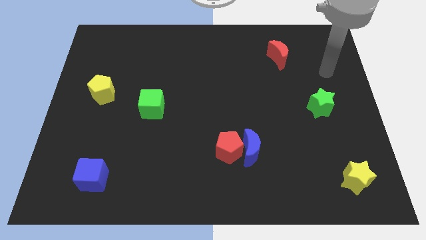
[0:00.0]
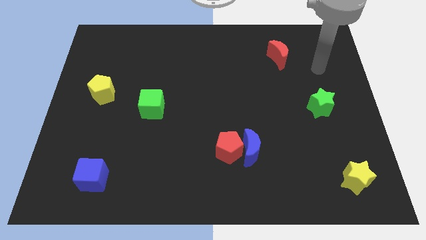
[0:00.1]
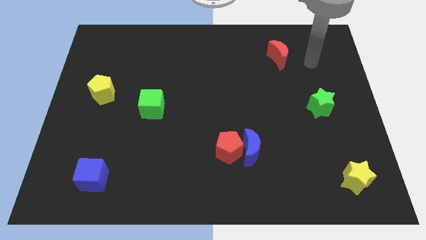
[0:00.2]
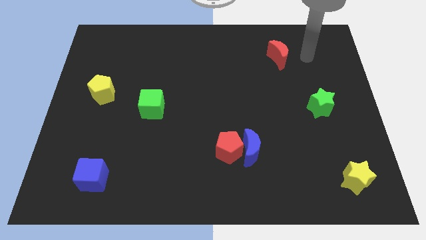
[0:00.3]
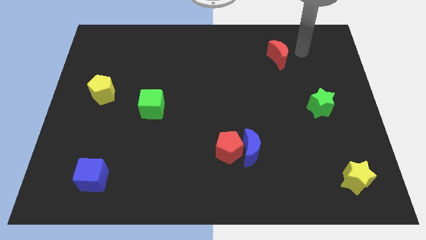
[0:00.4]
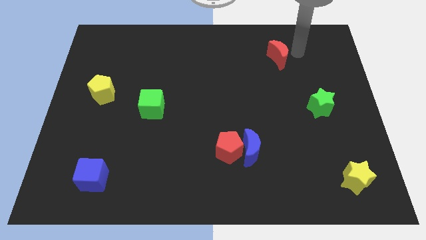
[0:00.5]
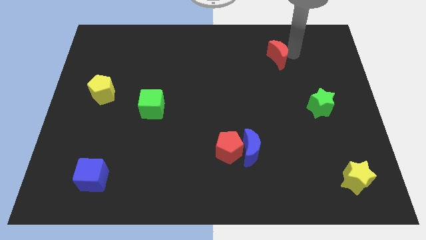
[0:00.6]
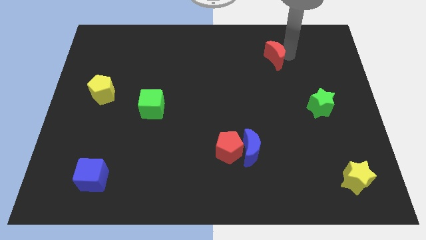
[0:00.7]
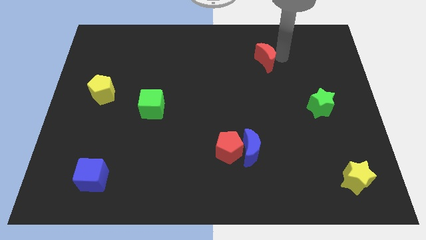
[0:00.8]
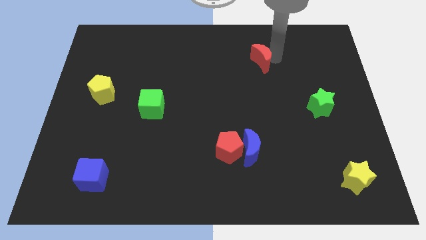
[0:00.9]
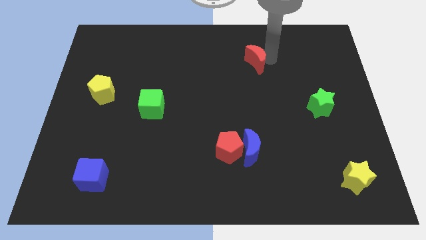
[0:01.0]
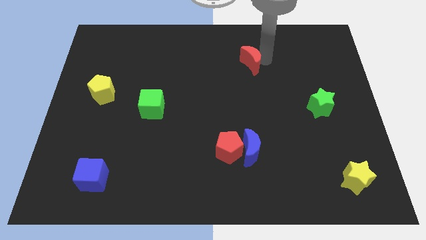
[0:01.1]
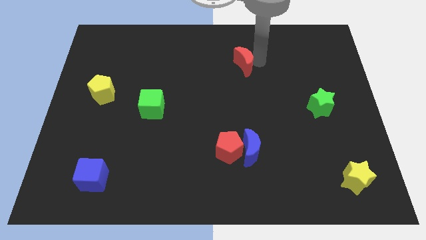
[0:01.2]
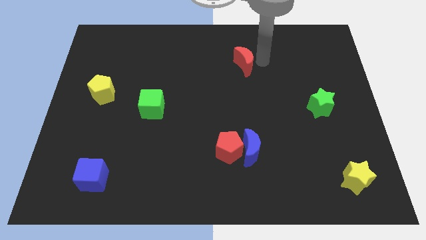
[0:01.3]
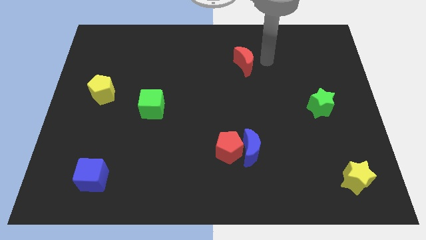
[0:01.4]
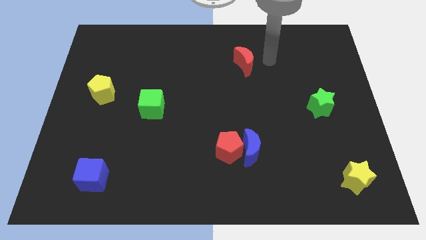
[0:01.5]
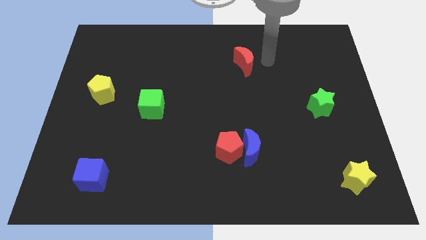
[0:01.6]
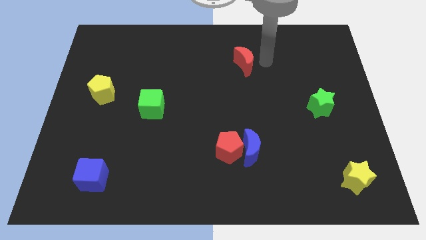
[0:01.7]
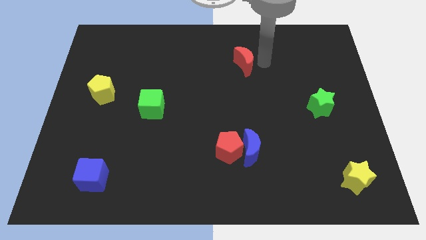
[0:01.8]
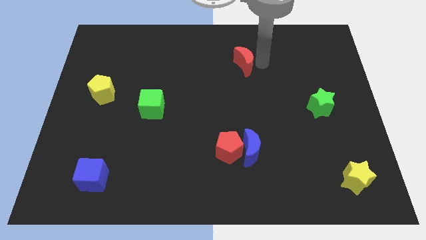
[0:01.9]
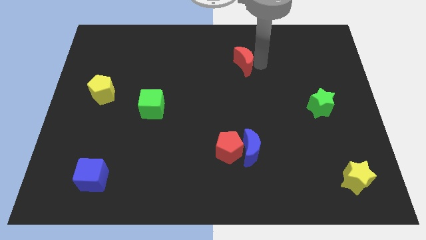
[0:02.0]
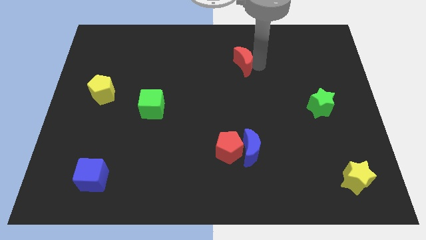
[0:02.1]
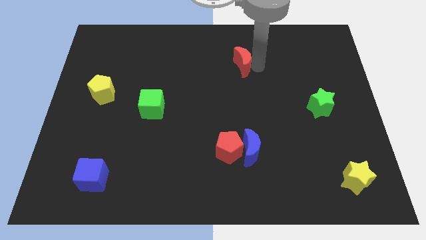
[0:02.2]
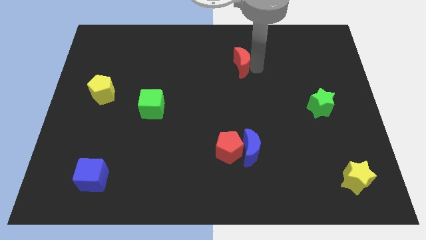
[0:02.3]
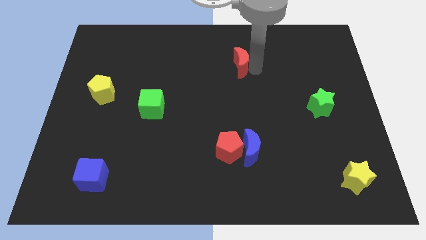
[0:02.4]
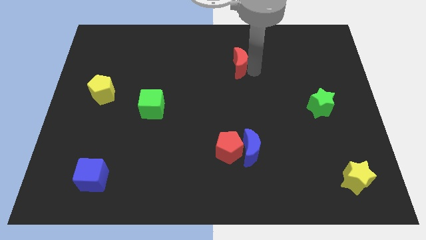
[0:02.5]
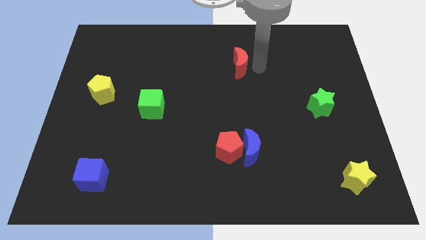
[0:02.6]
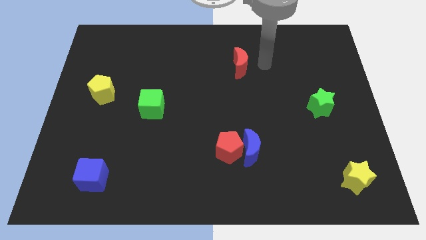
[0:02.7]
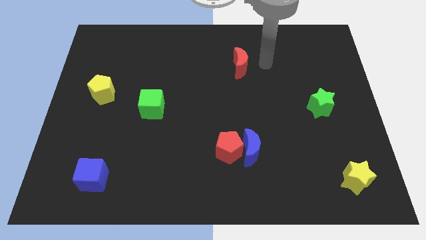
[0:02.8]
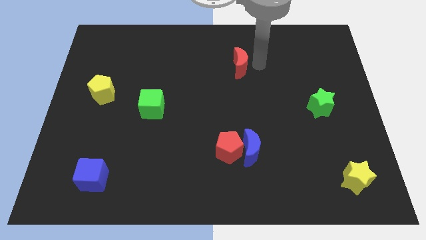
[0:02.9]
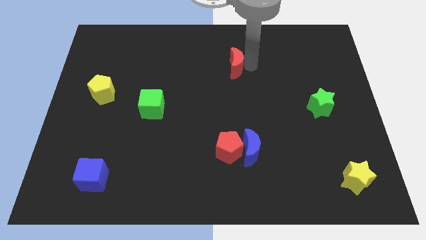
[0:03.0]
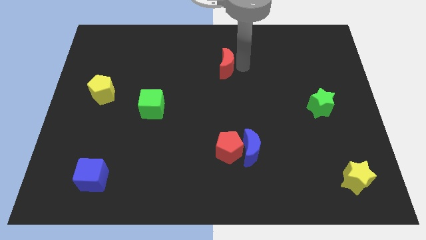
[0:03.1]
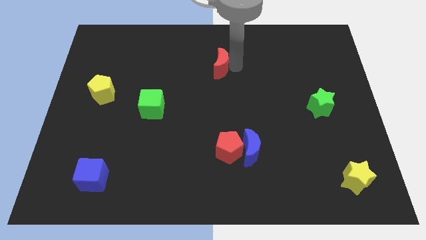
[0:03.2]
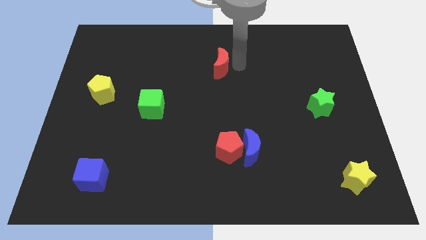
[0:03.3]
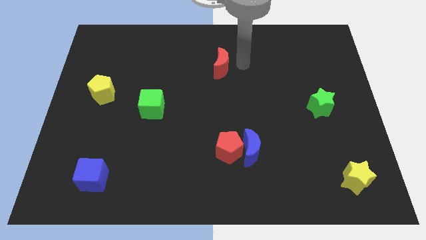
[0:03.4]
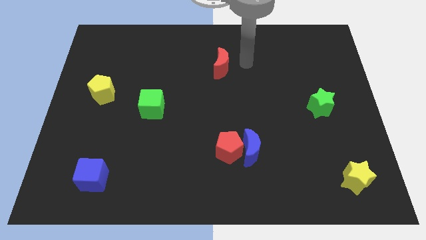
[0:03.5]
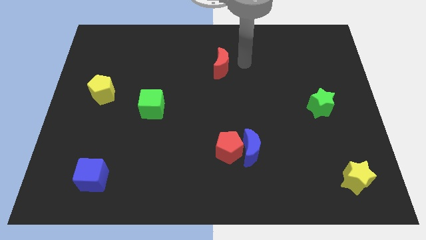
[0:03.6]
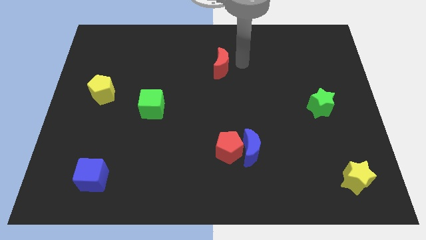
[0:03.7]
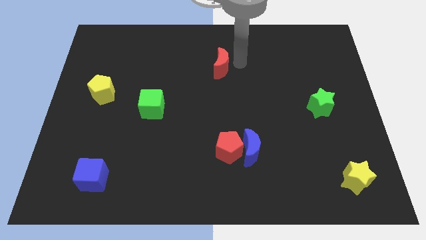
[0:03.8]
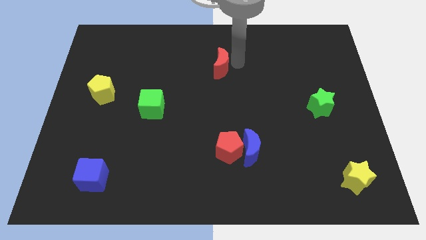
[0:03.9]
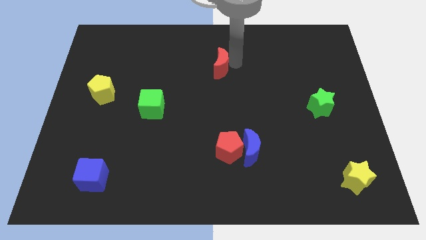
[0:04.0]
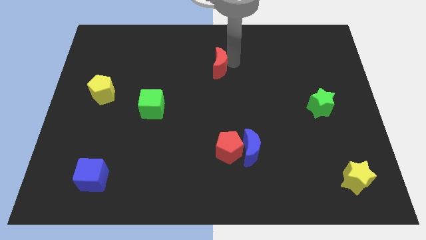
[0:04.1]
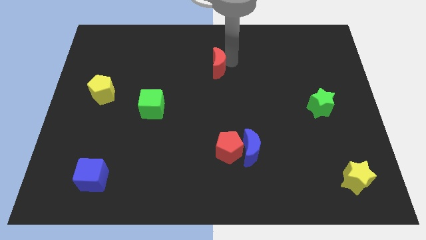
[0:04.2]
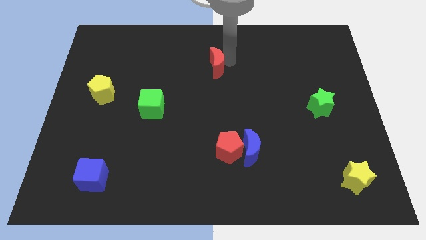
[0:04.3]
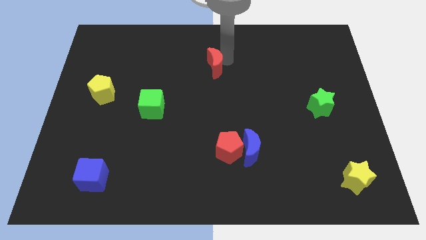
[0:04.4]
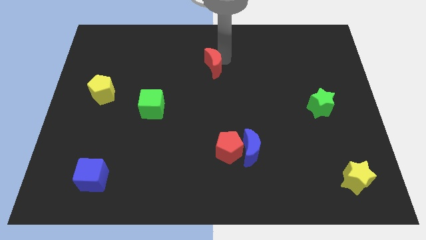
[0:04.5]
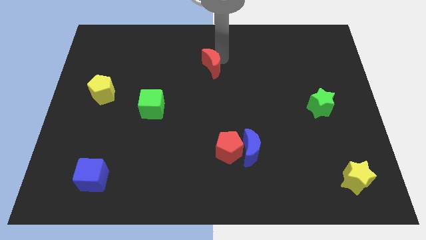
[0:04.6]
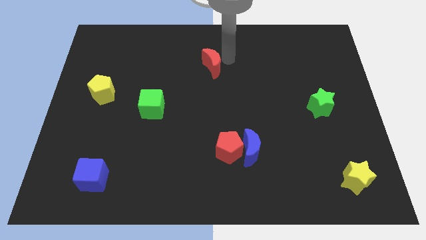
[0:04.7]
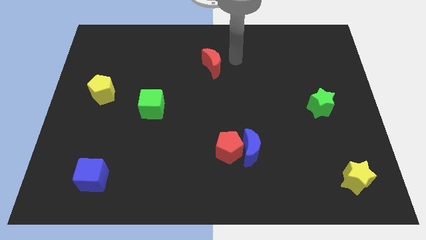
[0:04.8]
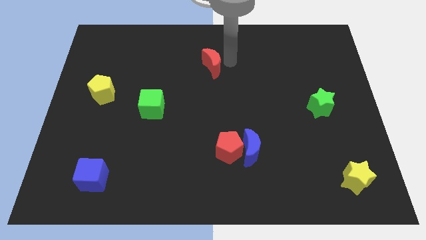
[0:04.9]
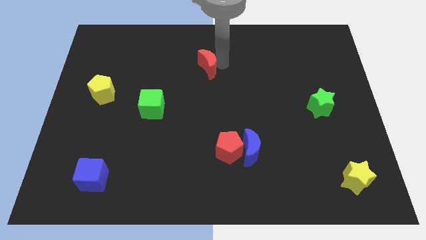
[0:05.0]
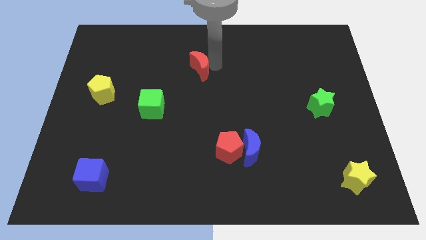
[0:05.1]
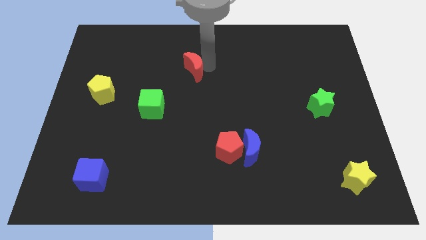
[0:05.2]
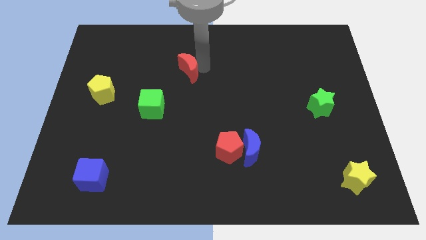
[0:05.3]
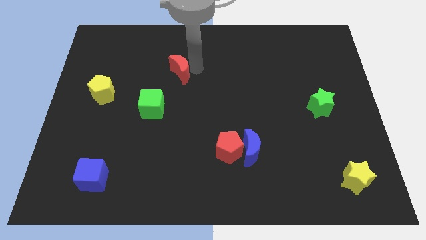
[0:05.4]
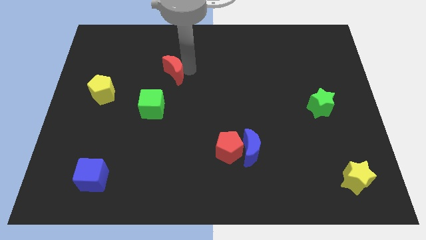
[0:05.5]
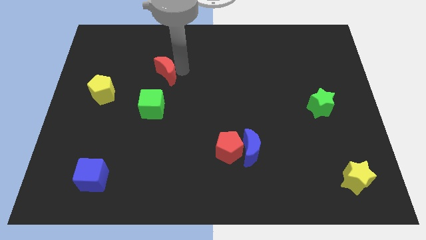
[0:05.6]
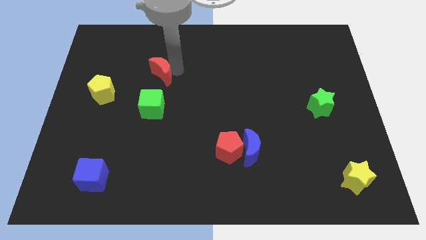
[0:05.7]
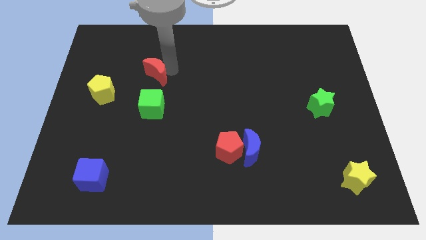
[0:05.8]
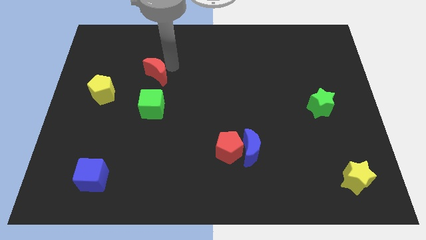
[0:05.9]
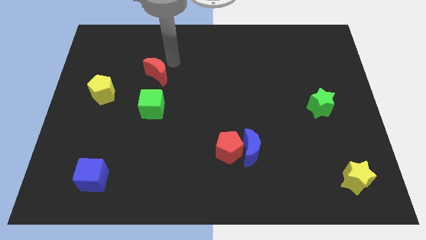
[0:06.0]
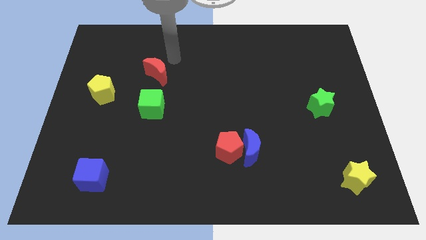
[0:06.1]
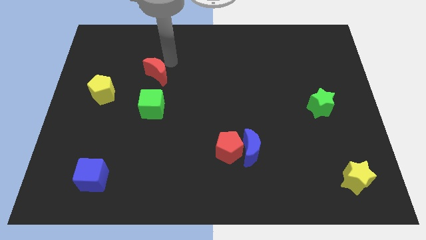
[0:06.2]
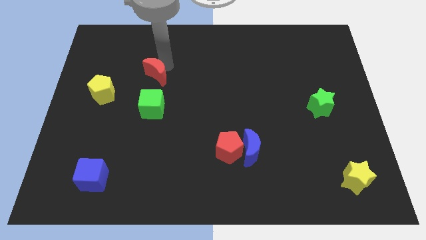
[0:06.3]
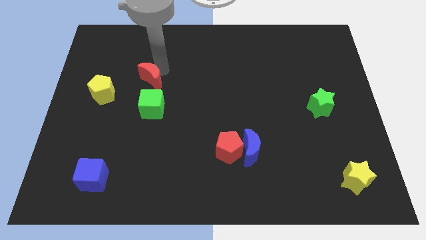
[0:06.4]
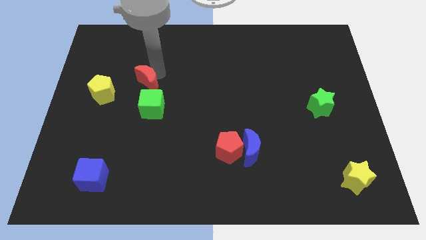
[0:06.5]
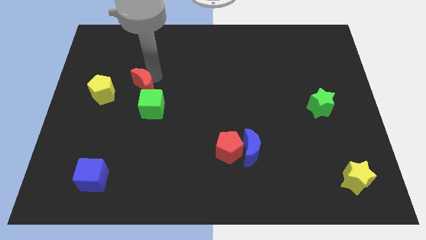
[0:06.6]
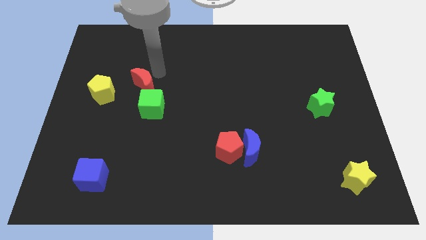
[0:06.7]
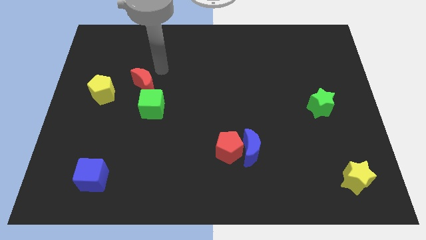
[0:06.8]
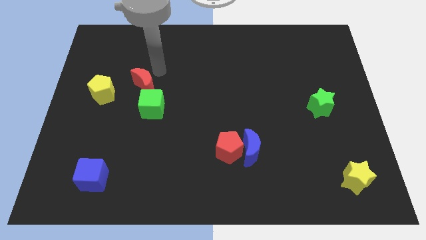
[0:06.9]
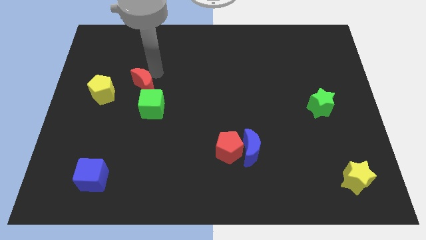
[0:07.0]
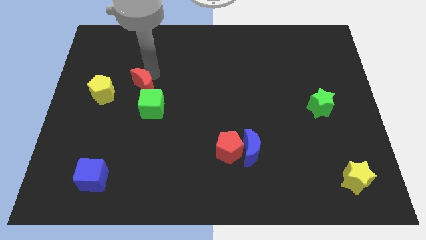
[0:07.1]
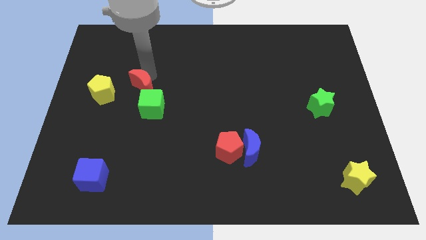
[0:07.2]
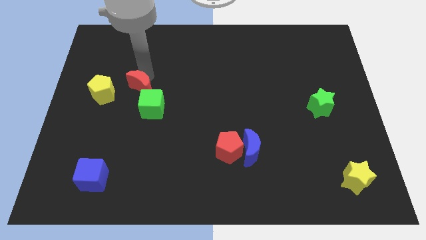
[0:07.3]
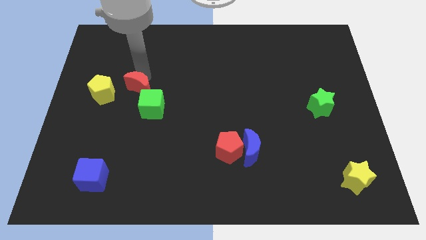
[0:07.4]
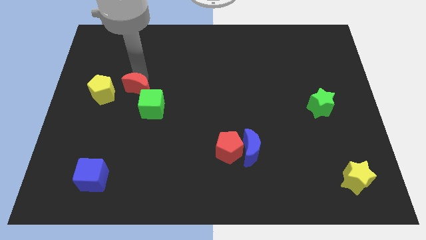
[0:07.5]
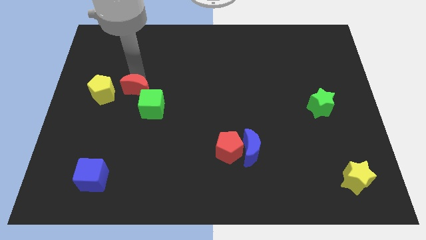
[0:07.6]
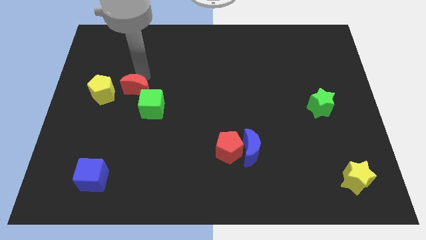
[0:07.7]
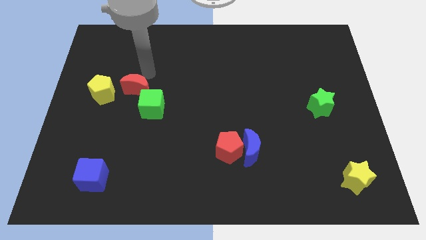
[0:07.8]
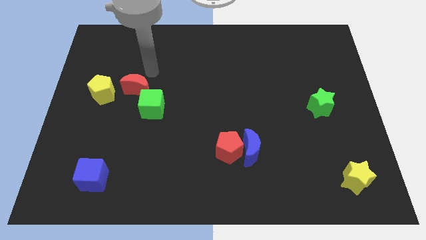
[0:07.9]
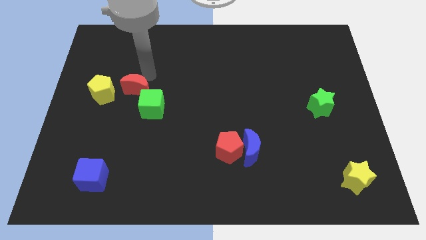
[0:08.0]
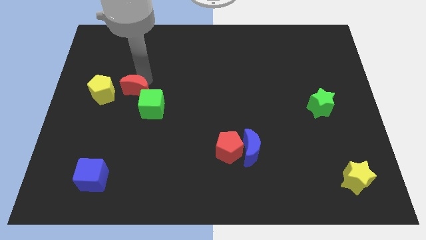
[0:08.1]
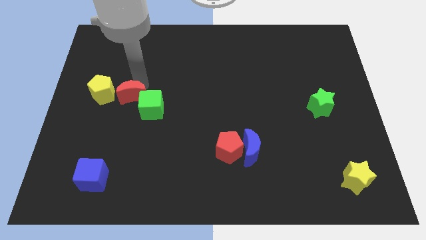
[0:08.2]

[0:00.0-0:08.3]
push the red moon to the bottom right of the yellow pentagon

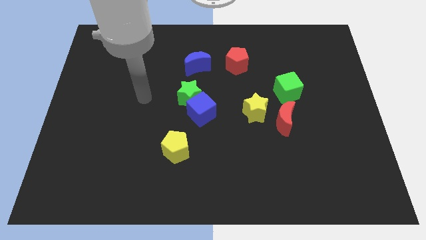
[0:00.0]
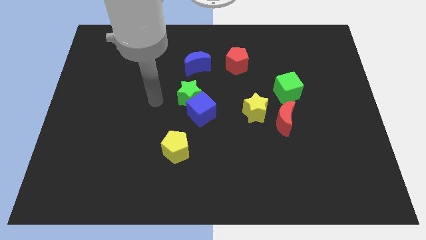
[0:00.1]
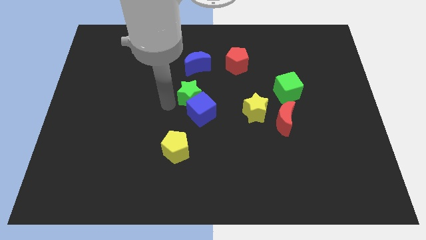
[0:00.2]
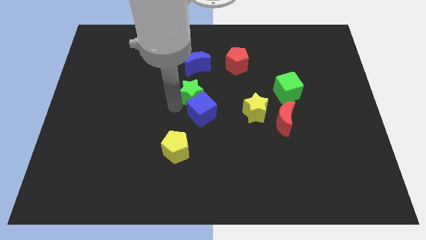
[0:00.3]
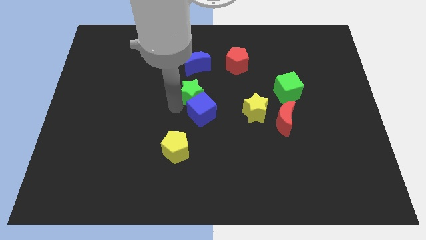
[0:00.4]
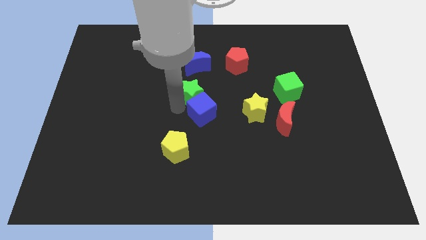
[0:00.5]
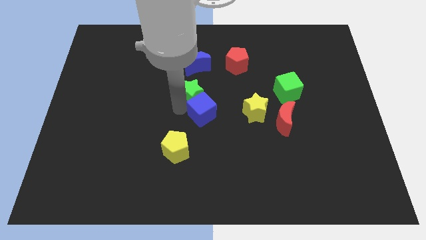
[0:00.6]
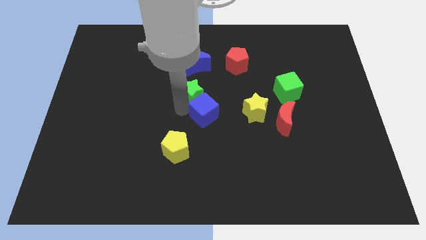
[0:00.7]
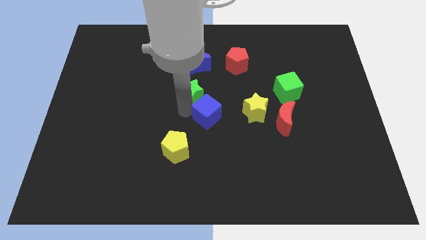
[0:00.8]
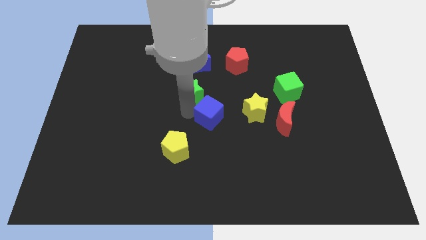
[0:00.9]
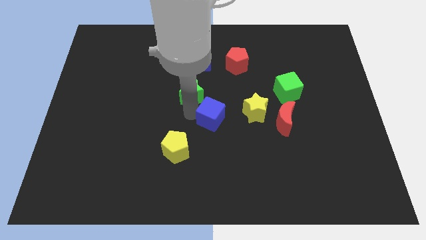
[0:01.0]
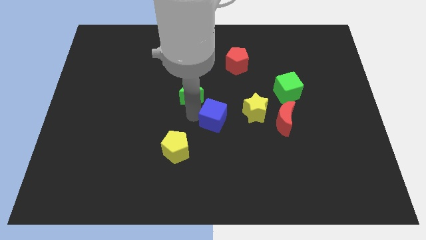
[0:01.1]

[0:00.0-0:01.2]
slide the blue cube to the left of the red moon
